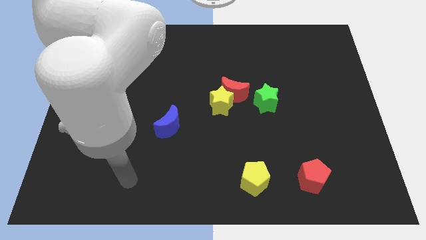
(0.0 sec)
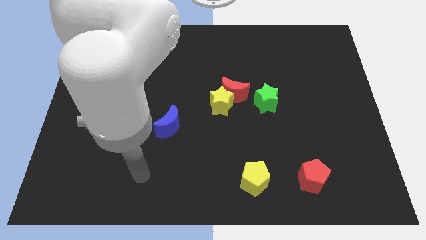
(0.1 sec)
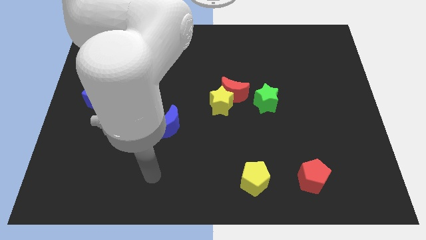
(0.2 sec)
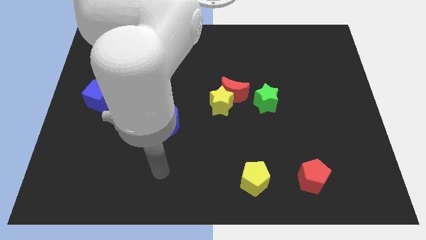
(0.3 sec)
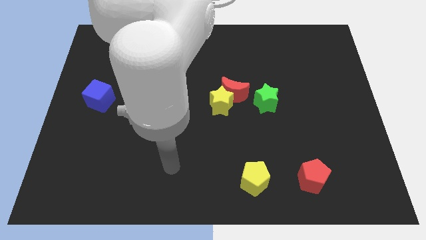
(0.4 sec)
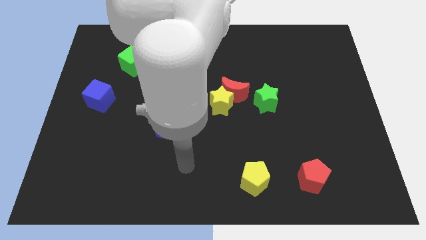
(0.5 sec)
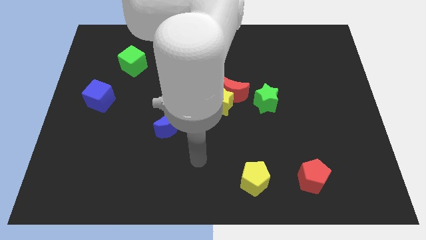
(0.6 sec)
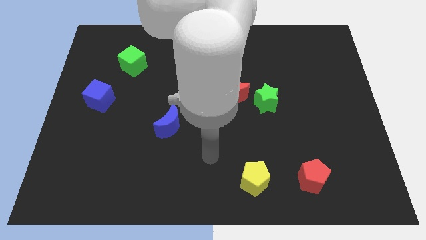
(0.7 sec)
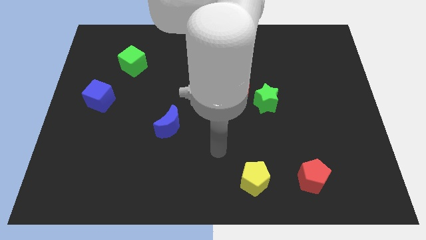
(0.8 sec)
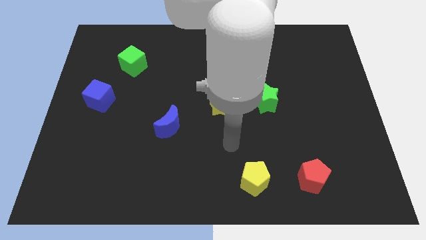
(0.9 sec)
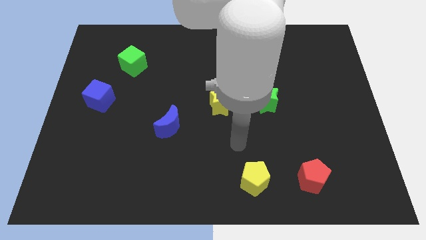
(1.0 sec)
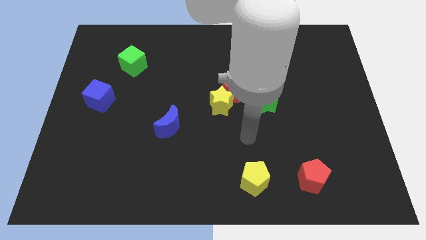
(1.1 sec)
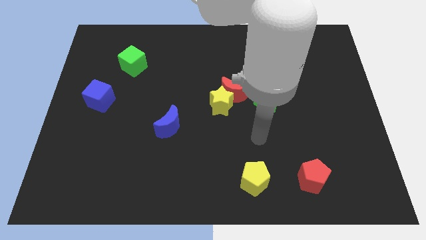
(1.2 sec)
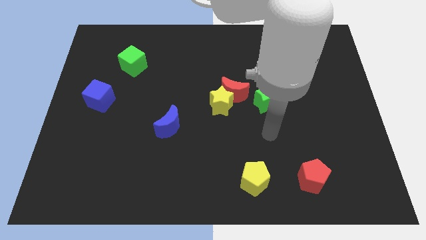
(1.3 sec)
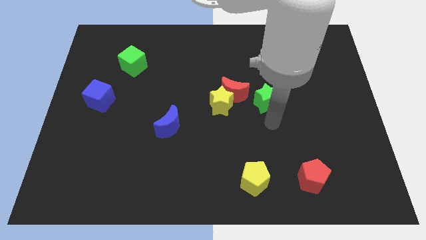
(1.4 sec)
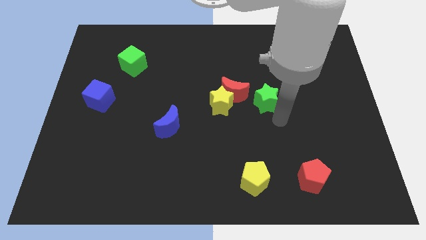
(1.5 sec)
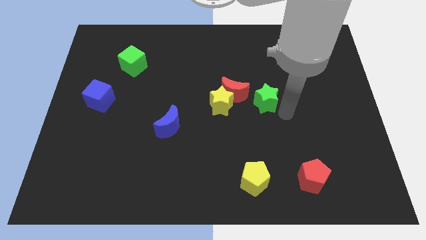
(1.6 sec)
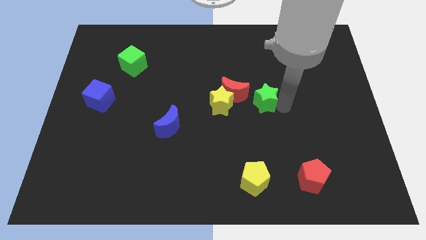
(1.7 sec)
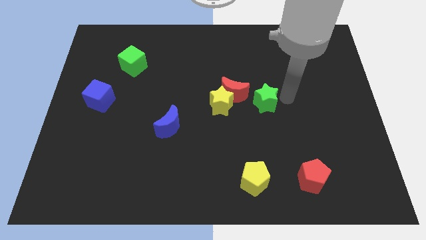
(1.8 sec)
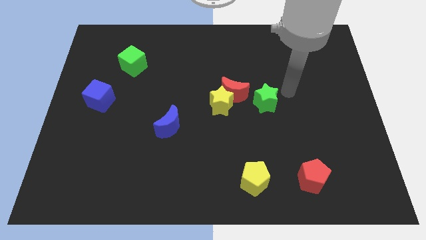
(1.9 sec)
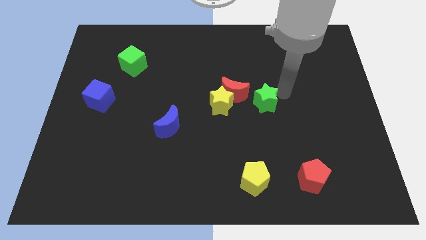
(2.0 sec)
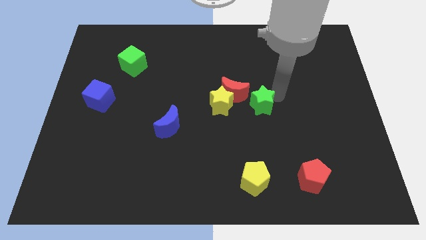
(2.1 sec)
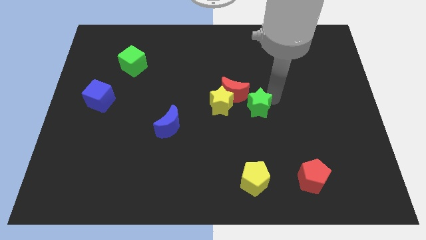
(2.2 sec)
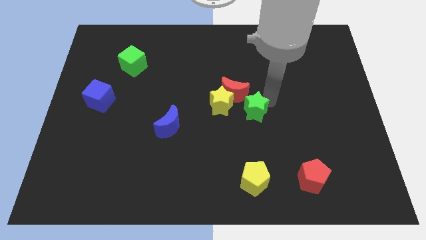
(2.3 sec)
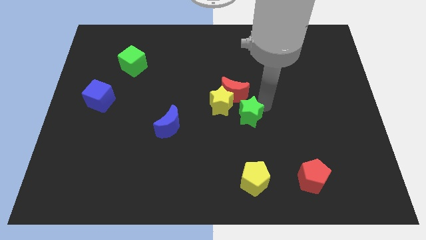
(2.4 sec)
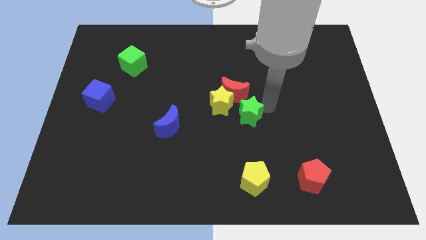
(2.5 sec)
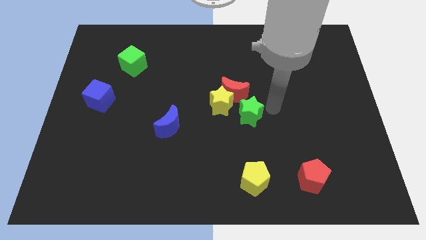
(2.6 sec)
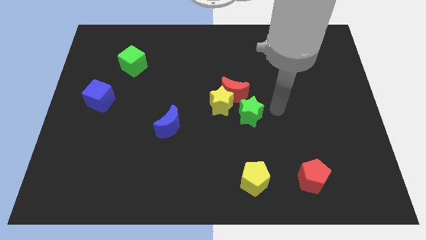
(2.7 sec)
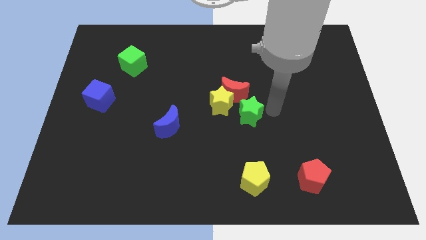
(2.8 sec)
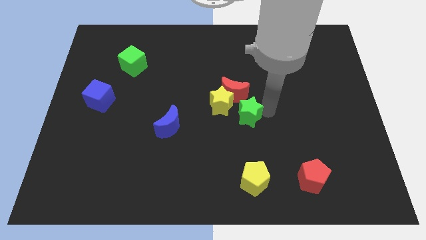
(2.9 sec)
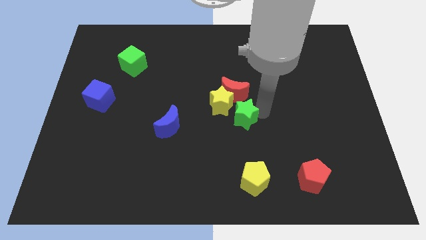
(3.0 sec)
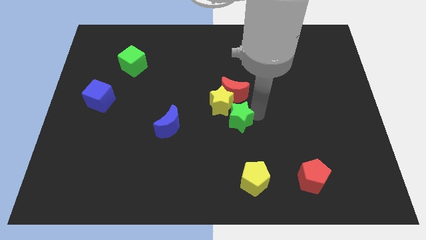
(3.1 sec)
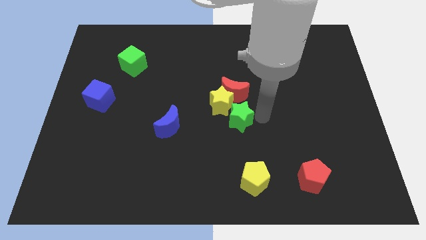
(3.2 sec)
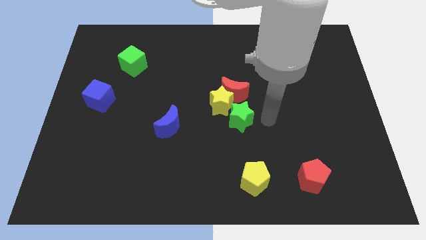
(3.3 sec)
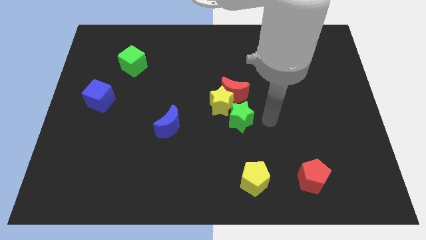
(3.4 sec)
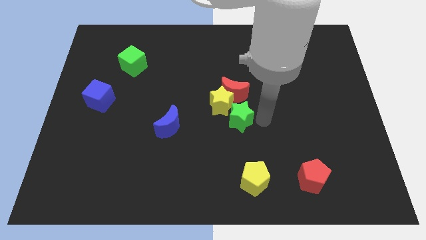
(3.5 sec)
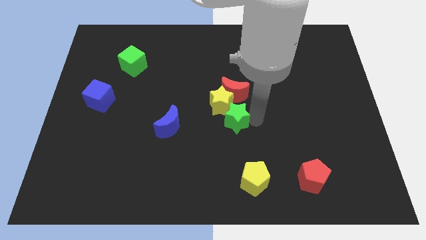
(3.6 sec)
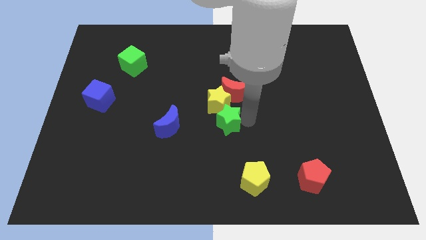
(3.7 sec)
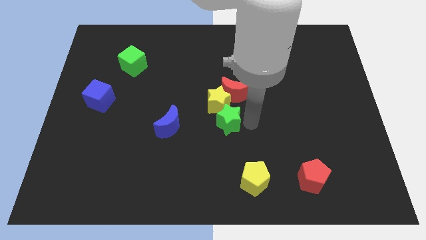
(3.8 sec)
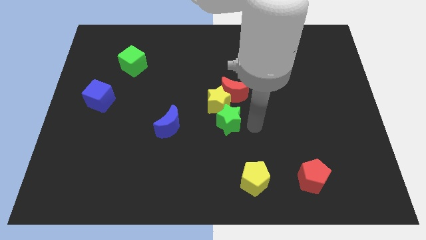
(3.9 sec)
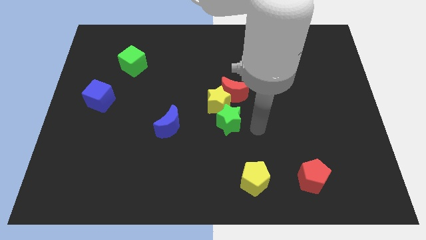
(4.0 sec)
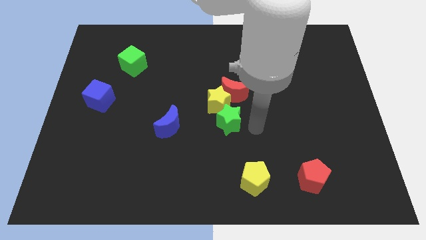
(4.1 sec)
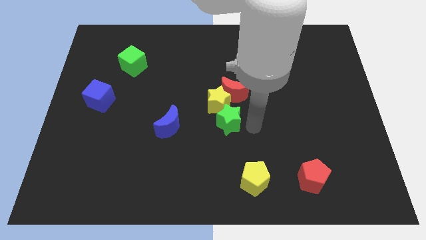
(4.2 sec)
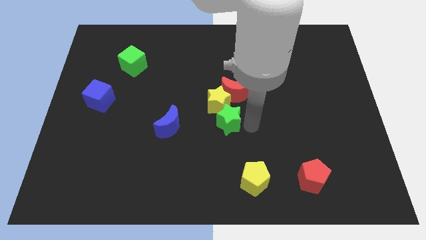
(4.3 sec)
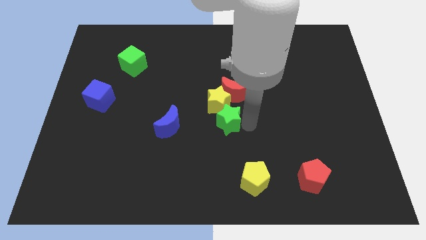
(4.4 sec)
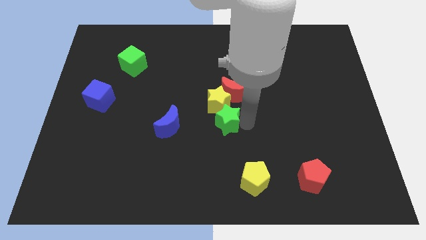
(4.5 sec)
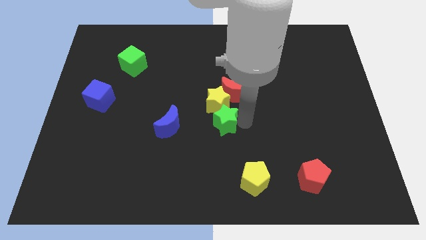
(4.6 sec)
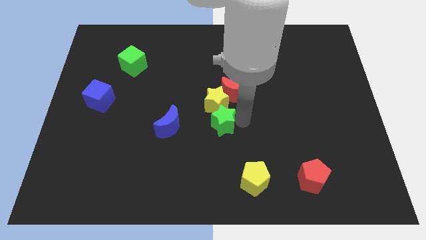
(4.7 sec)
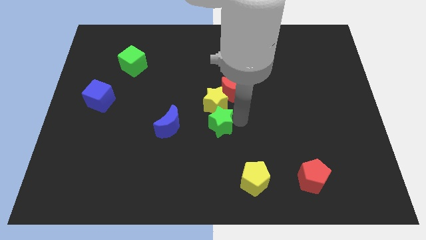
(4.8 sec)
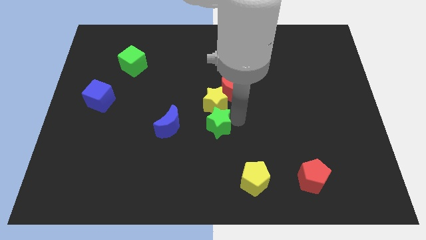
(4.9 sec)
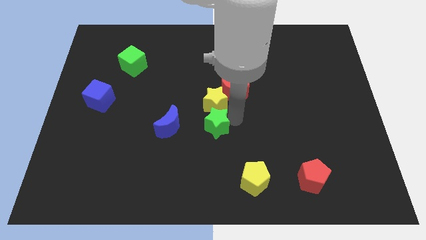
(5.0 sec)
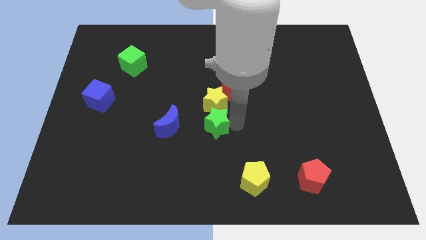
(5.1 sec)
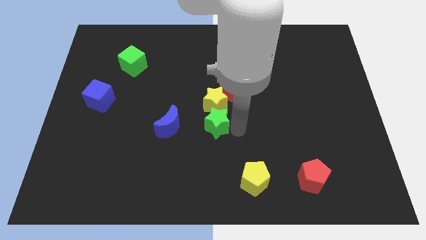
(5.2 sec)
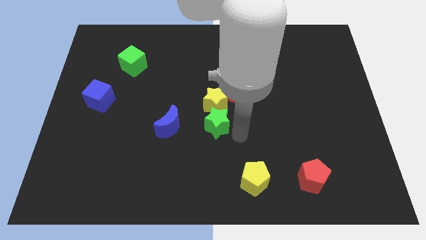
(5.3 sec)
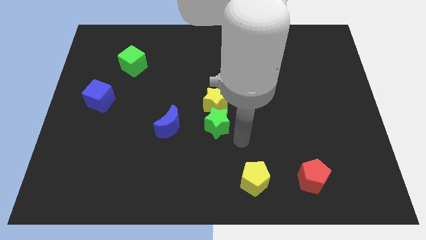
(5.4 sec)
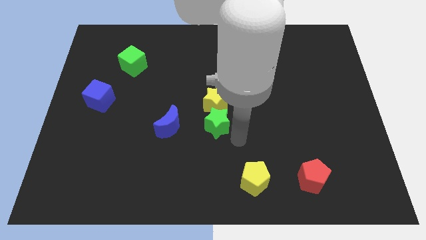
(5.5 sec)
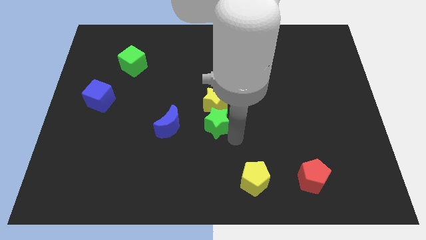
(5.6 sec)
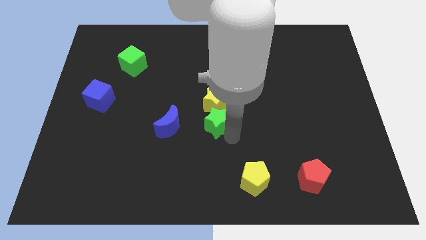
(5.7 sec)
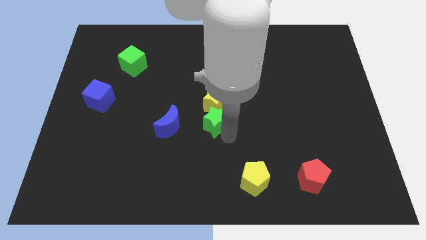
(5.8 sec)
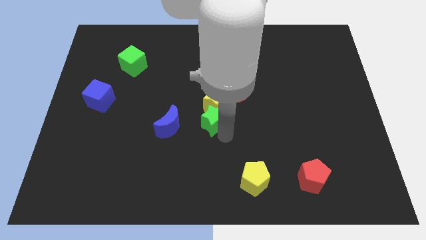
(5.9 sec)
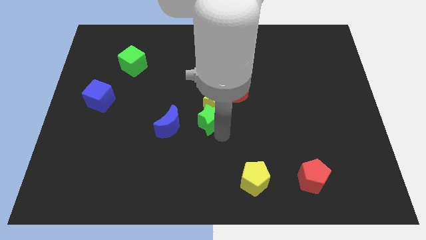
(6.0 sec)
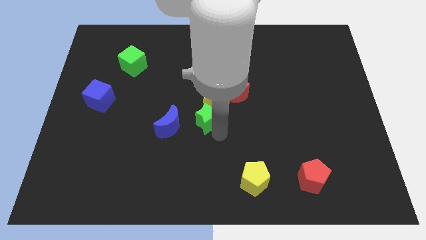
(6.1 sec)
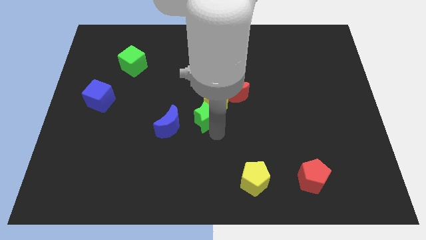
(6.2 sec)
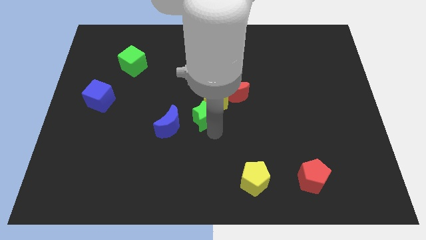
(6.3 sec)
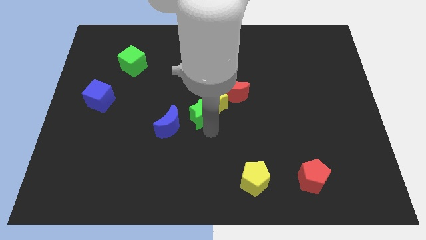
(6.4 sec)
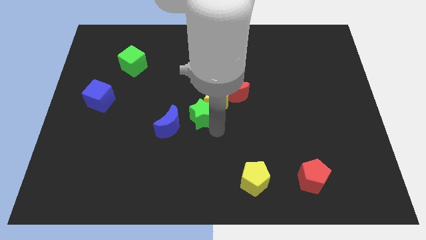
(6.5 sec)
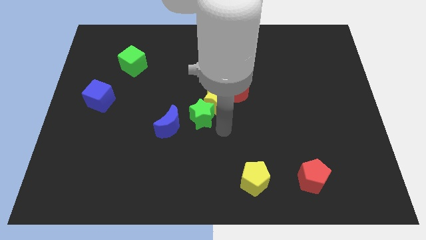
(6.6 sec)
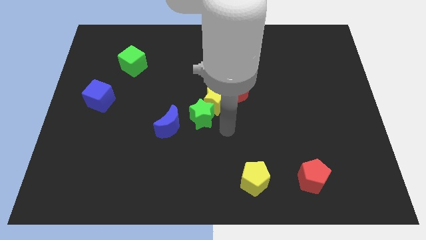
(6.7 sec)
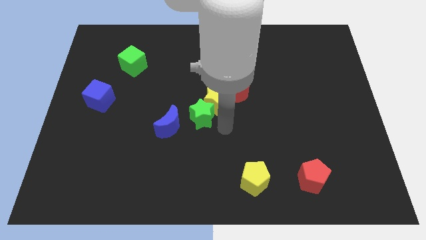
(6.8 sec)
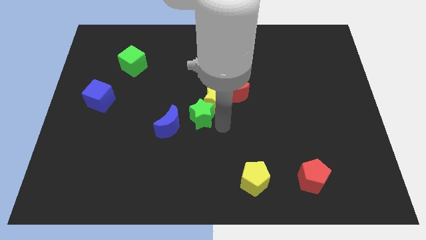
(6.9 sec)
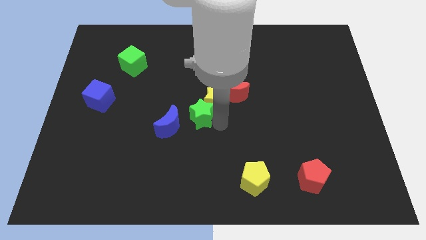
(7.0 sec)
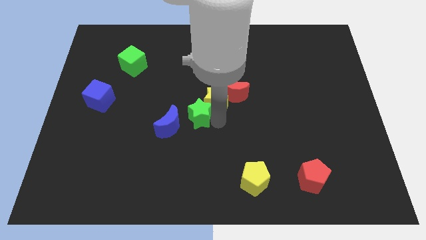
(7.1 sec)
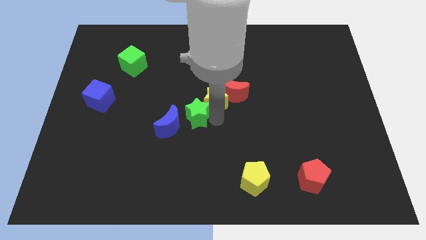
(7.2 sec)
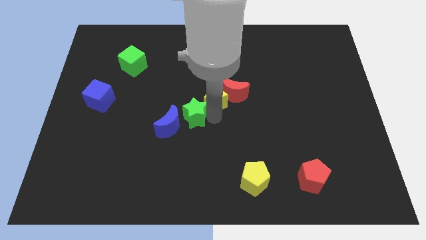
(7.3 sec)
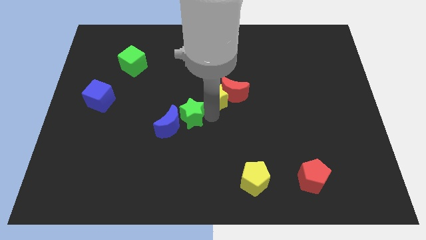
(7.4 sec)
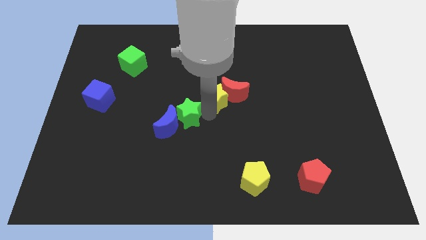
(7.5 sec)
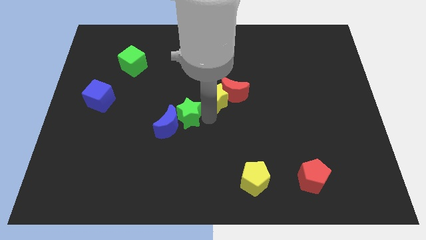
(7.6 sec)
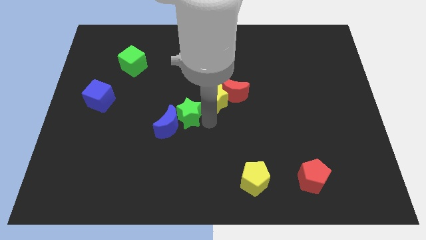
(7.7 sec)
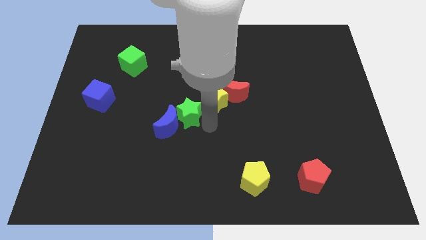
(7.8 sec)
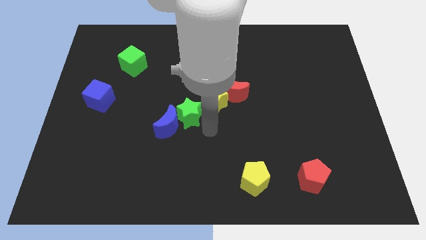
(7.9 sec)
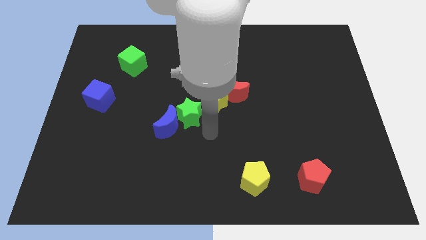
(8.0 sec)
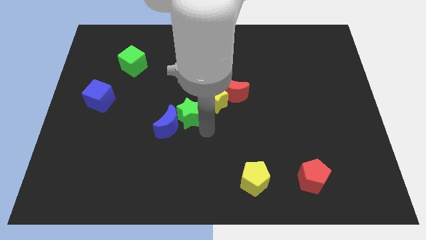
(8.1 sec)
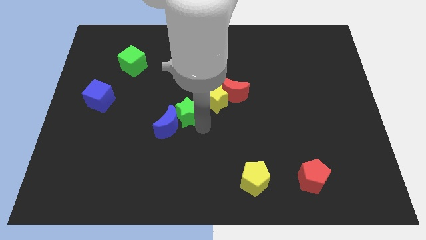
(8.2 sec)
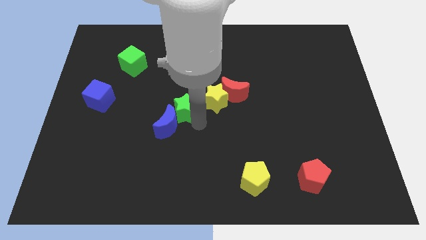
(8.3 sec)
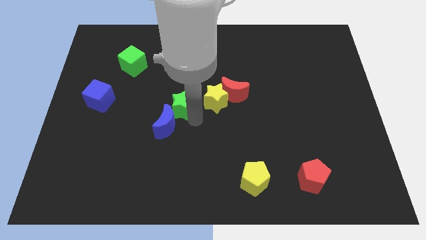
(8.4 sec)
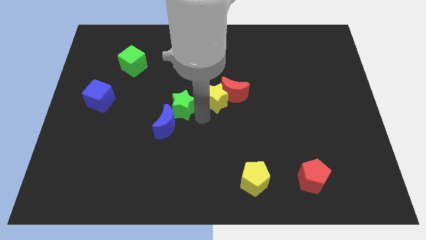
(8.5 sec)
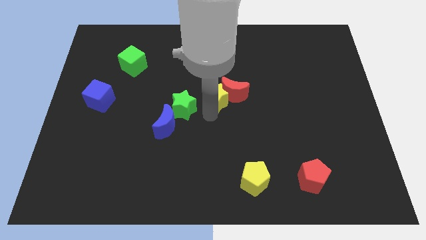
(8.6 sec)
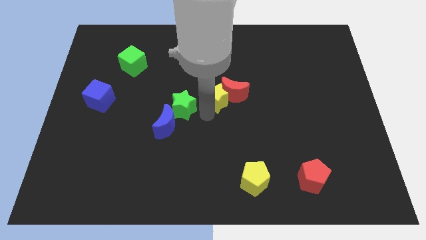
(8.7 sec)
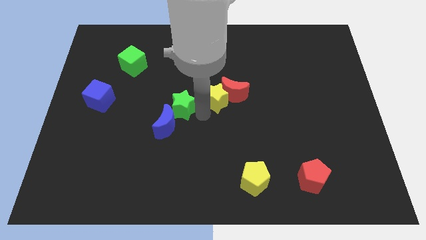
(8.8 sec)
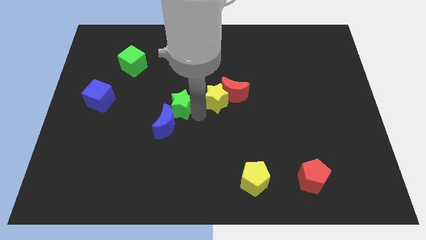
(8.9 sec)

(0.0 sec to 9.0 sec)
slide the green star left
